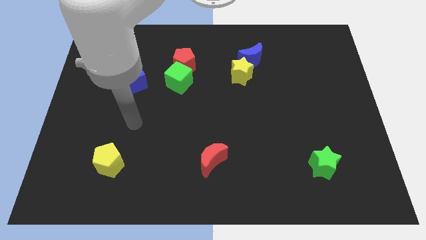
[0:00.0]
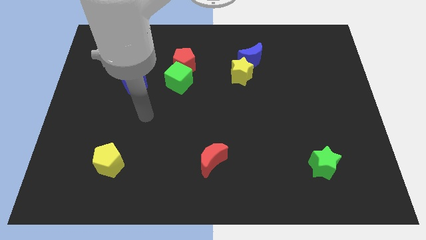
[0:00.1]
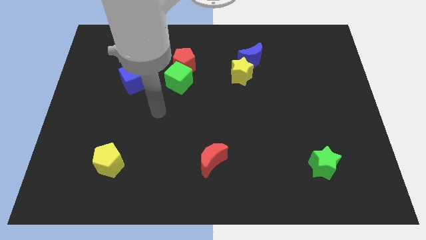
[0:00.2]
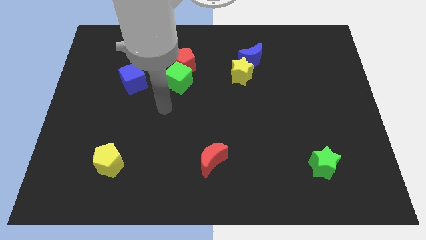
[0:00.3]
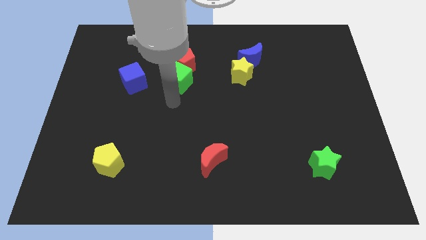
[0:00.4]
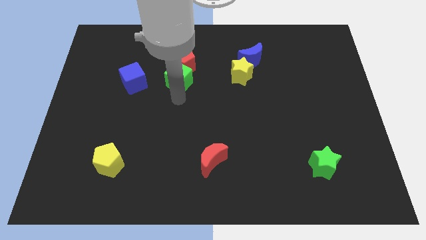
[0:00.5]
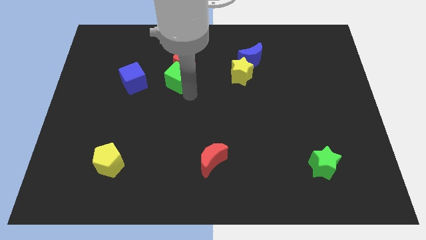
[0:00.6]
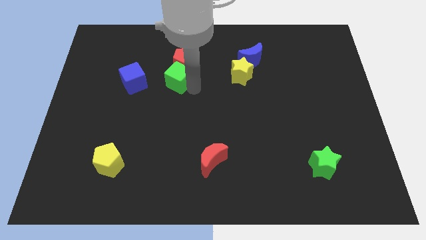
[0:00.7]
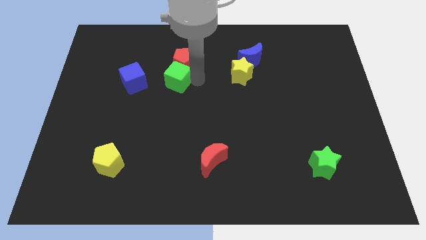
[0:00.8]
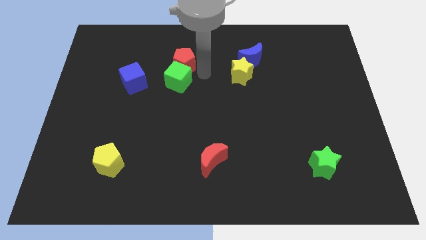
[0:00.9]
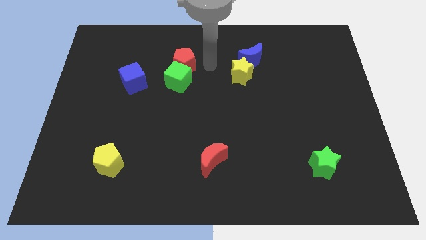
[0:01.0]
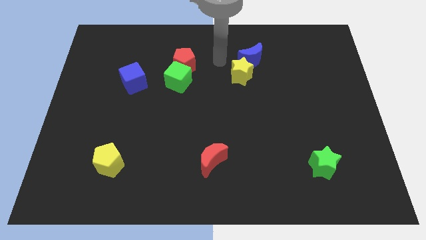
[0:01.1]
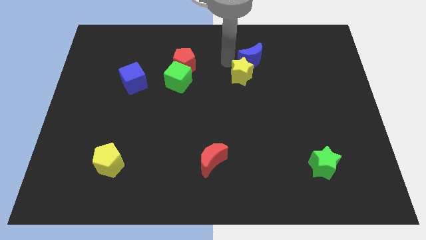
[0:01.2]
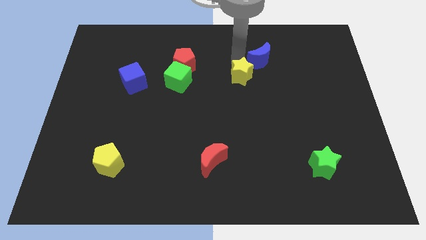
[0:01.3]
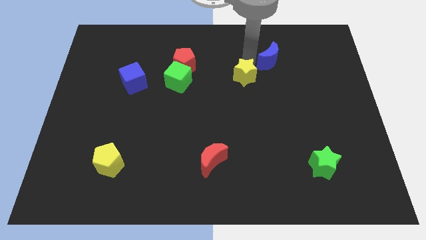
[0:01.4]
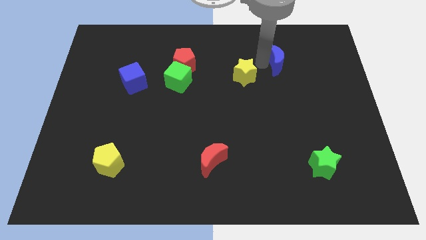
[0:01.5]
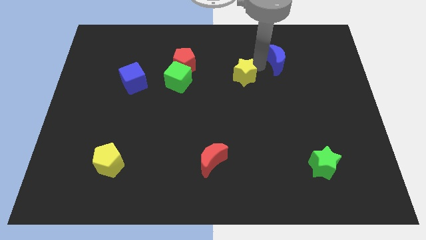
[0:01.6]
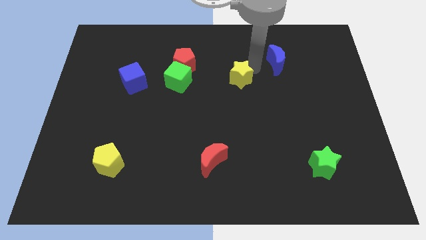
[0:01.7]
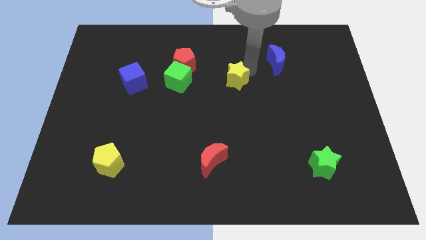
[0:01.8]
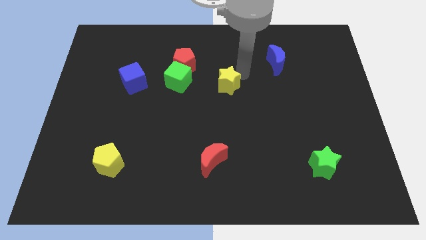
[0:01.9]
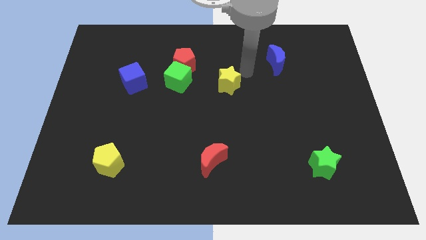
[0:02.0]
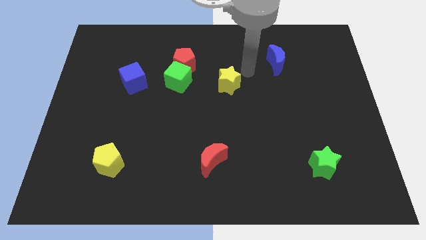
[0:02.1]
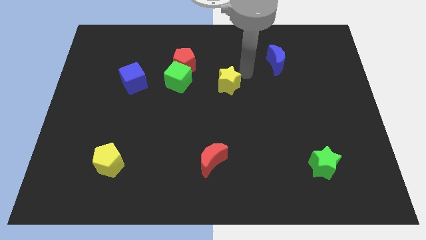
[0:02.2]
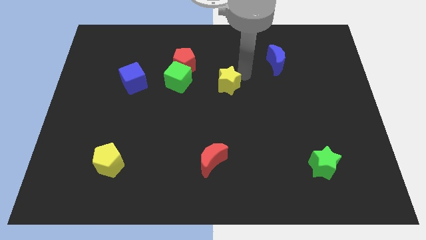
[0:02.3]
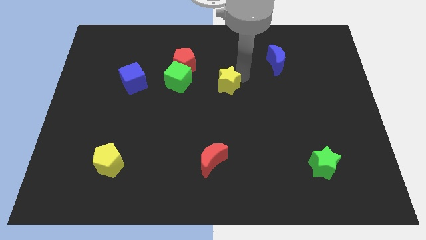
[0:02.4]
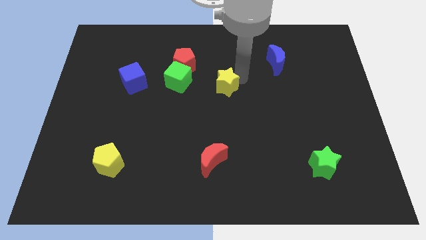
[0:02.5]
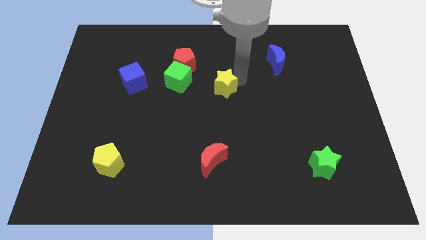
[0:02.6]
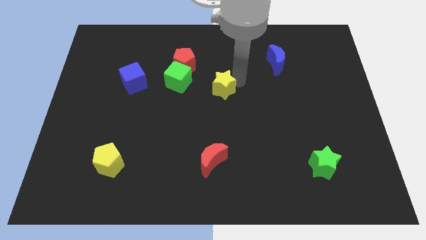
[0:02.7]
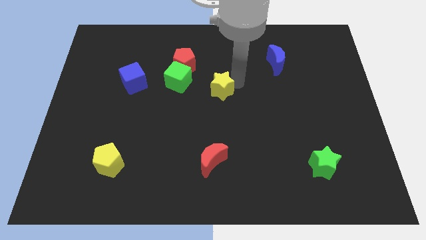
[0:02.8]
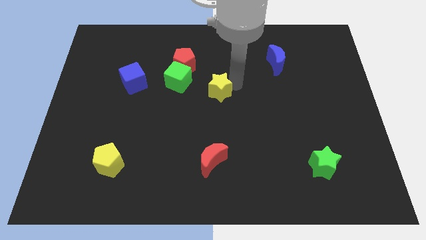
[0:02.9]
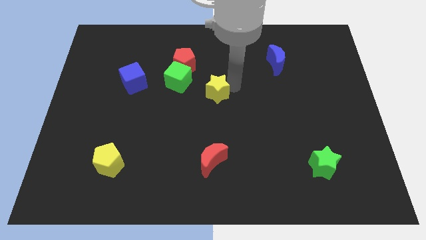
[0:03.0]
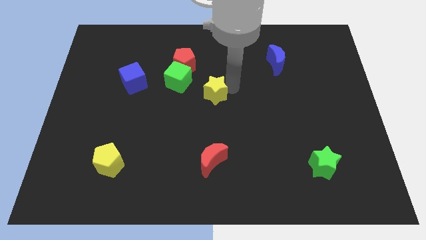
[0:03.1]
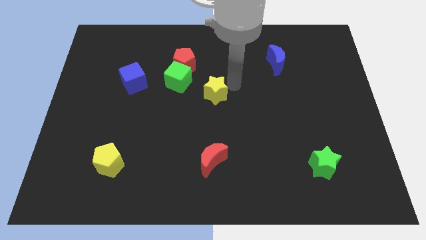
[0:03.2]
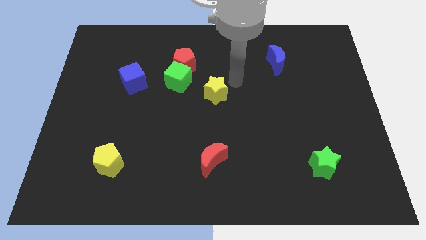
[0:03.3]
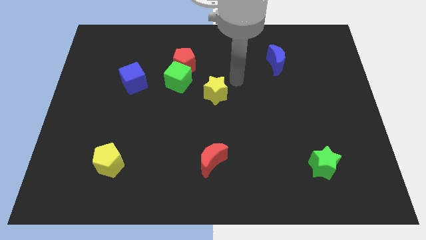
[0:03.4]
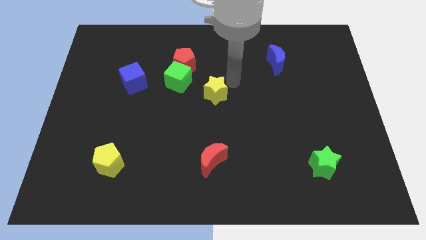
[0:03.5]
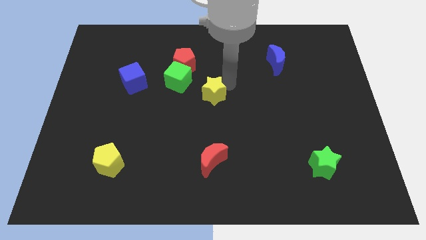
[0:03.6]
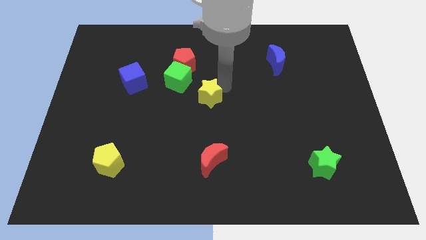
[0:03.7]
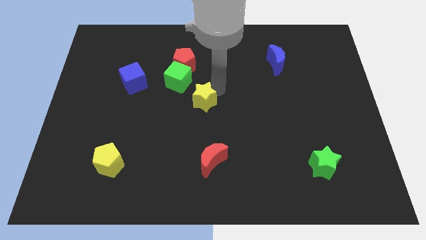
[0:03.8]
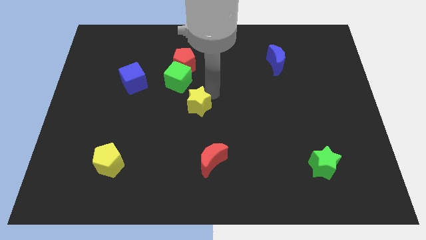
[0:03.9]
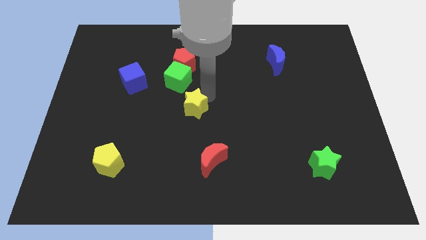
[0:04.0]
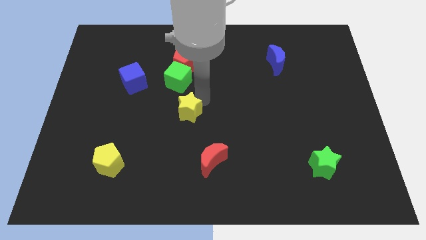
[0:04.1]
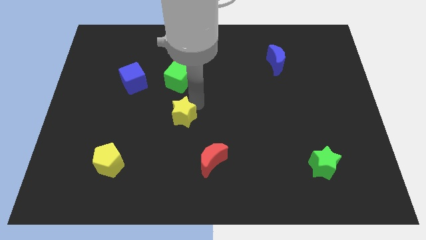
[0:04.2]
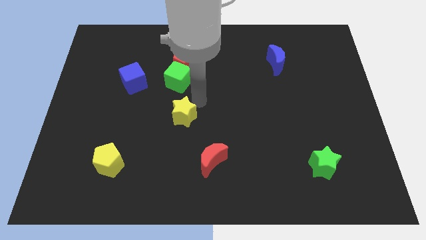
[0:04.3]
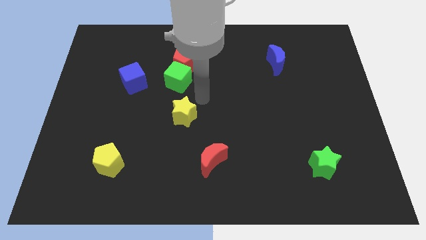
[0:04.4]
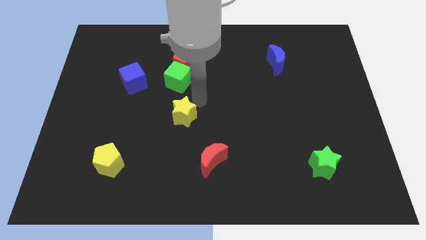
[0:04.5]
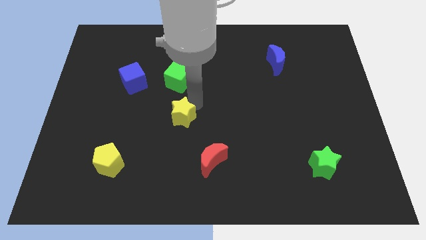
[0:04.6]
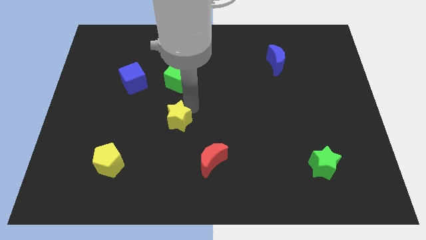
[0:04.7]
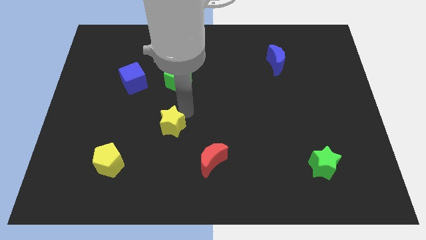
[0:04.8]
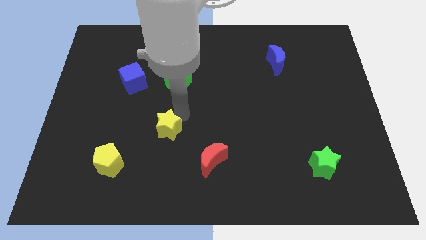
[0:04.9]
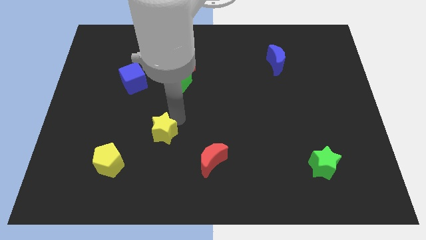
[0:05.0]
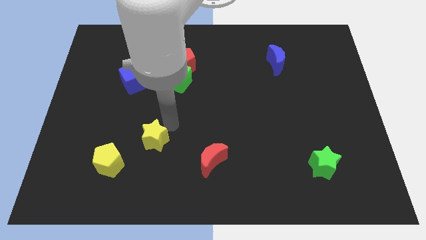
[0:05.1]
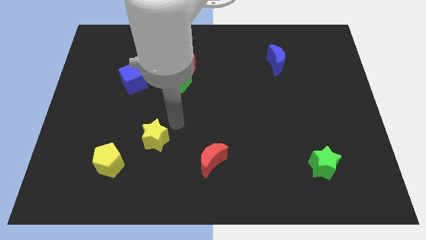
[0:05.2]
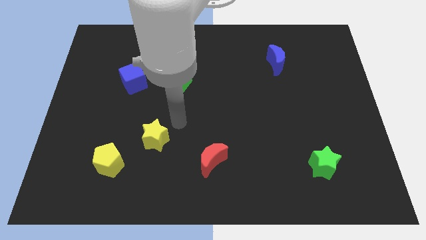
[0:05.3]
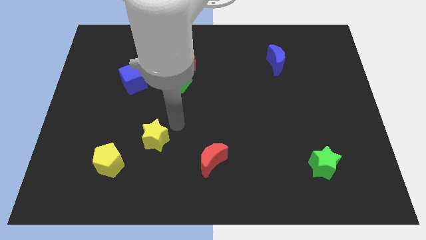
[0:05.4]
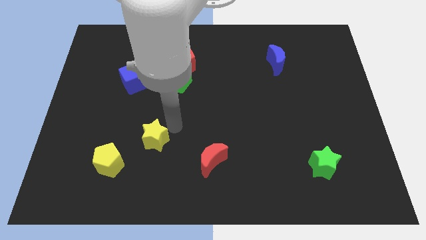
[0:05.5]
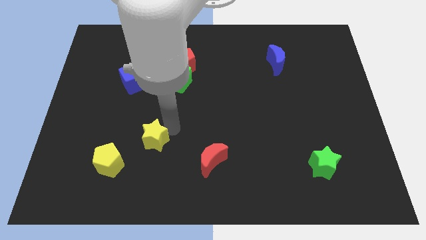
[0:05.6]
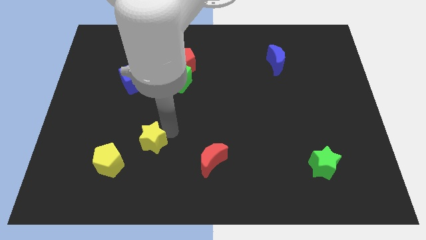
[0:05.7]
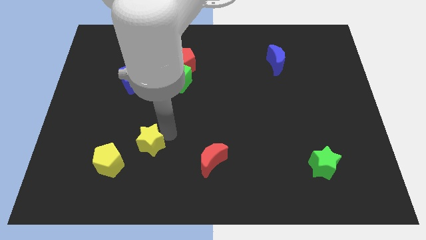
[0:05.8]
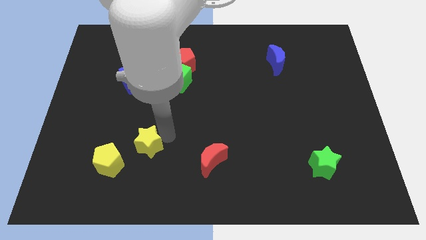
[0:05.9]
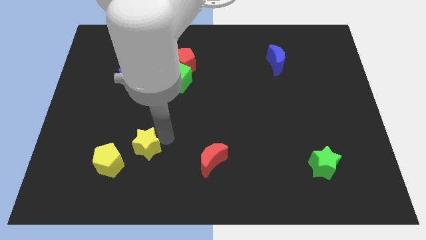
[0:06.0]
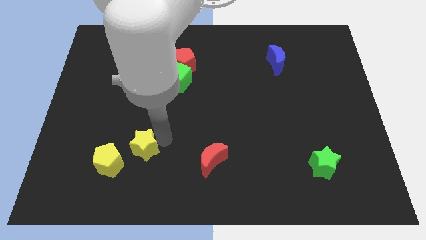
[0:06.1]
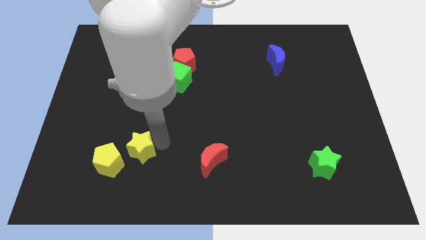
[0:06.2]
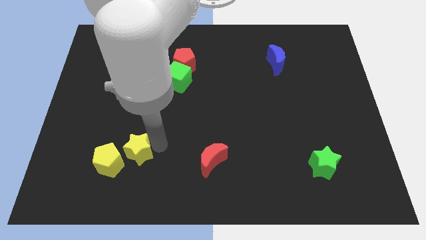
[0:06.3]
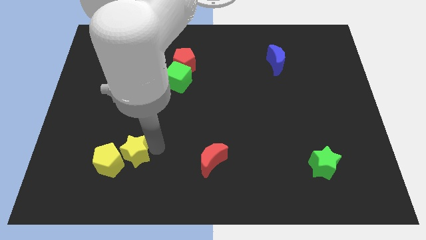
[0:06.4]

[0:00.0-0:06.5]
push the yellow star next to the yellow pentagon

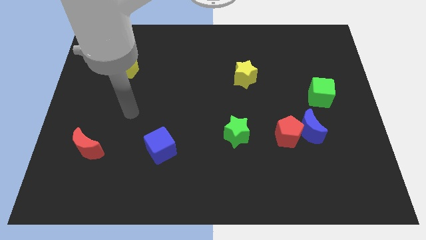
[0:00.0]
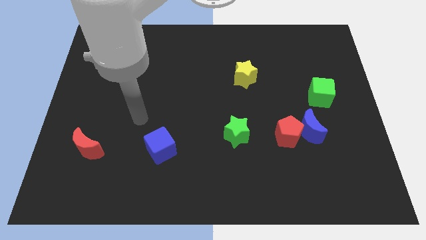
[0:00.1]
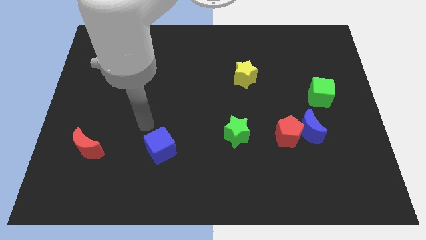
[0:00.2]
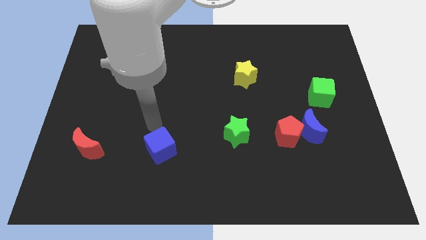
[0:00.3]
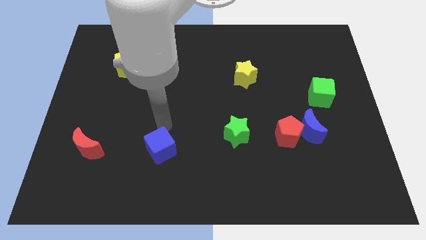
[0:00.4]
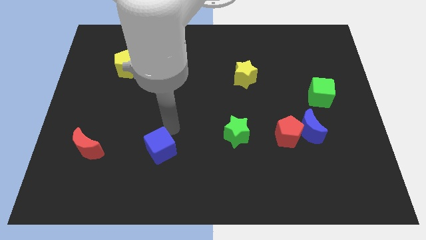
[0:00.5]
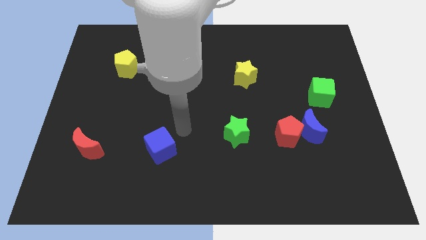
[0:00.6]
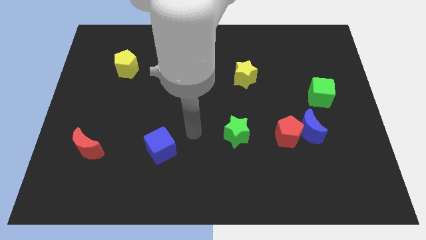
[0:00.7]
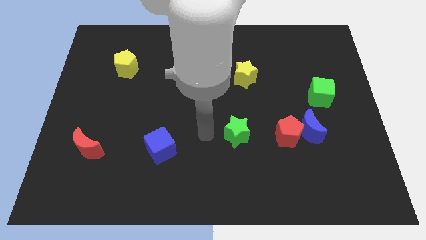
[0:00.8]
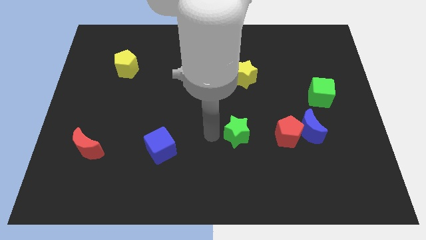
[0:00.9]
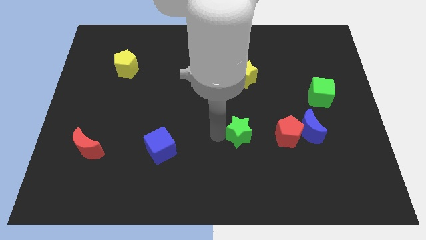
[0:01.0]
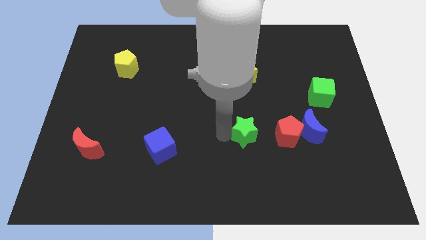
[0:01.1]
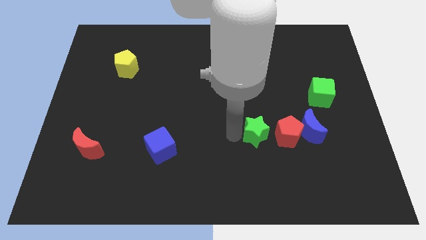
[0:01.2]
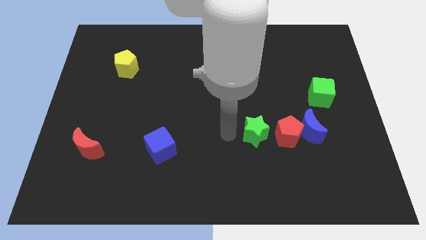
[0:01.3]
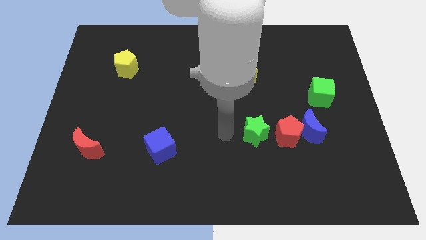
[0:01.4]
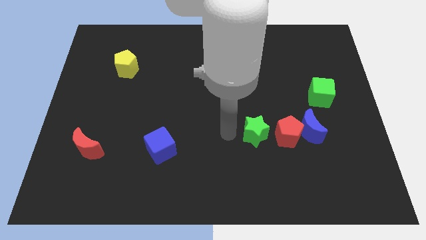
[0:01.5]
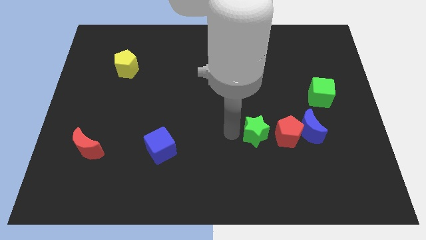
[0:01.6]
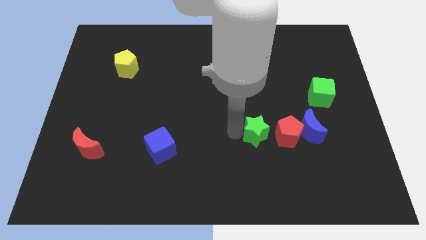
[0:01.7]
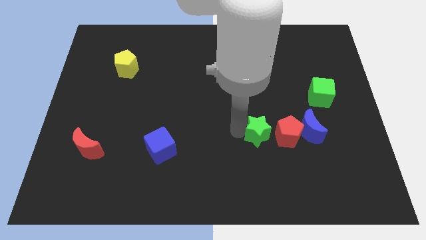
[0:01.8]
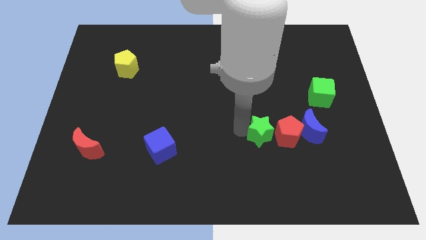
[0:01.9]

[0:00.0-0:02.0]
move the green star towards the red pentagon

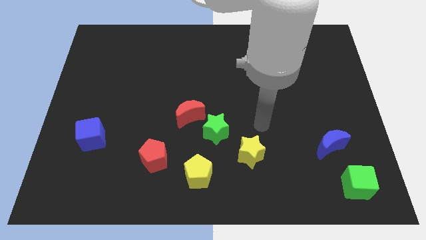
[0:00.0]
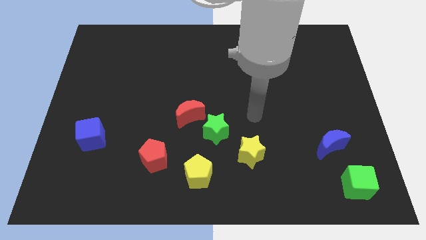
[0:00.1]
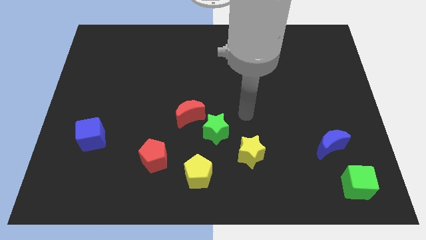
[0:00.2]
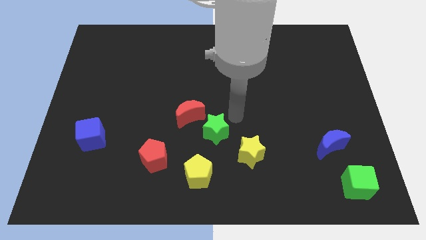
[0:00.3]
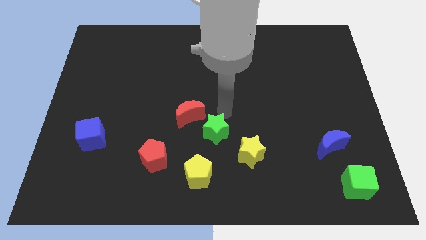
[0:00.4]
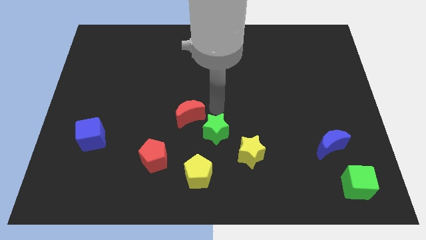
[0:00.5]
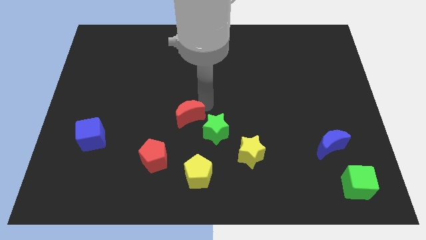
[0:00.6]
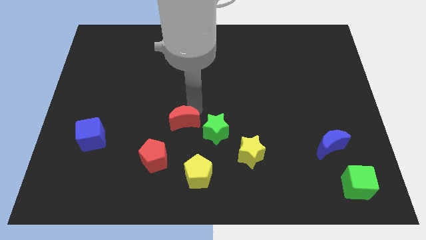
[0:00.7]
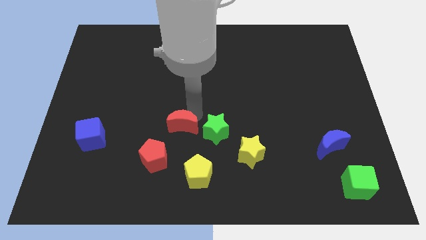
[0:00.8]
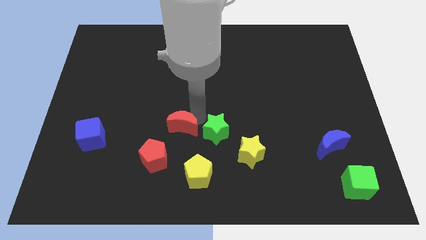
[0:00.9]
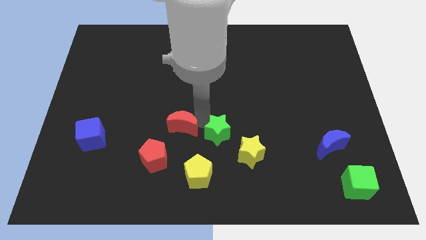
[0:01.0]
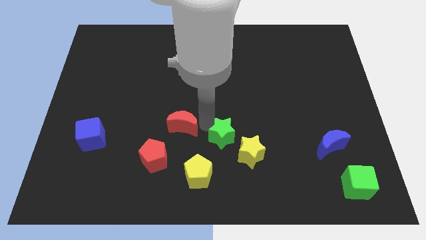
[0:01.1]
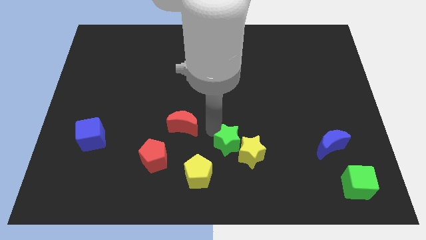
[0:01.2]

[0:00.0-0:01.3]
push the green star close to the yellow star
